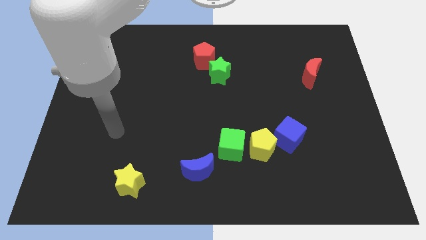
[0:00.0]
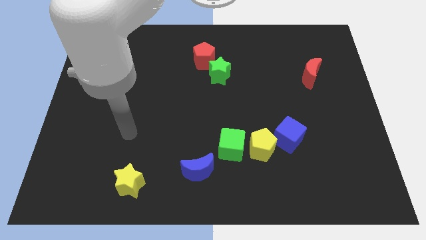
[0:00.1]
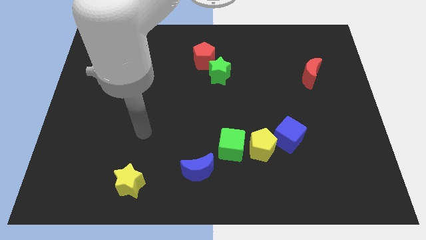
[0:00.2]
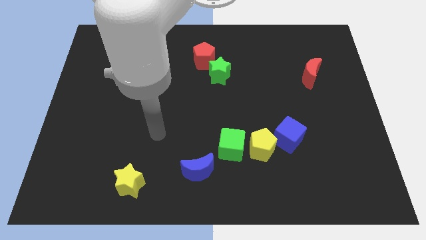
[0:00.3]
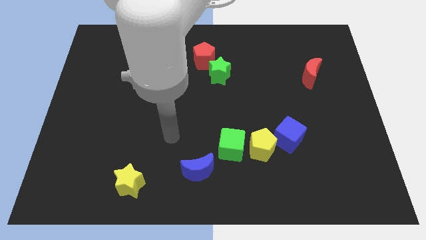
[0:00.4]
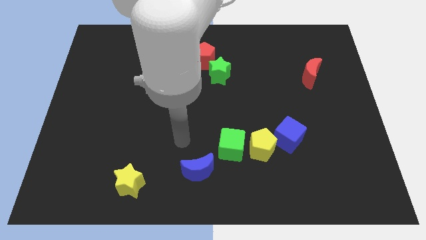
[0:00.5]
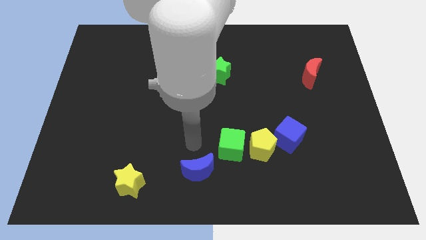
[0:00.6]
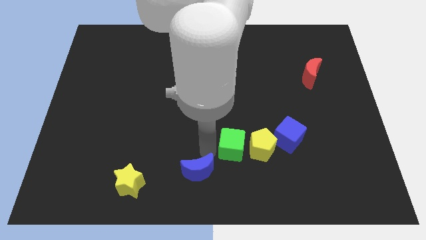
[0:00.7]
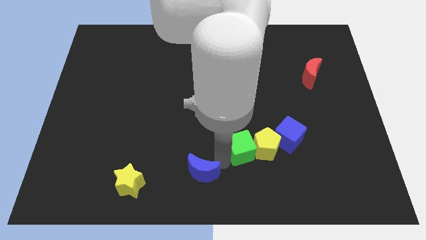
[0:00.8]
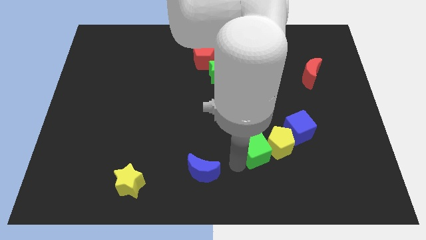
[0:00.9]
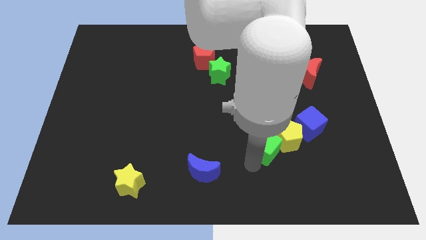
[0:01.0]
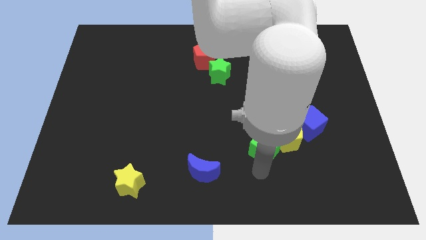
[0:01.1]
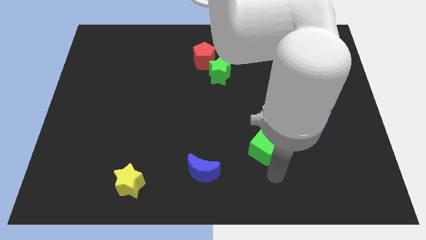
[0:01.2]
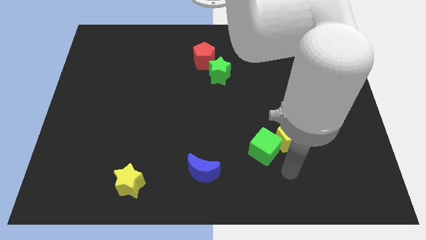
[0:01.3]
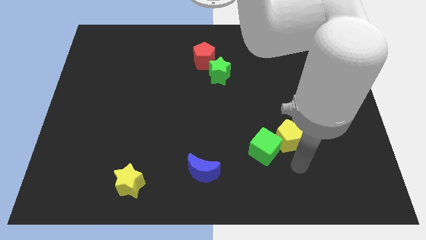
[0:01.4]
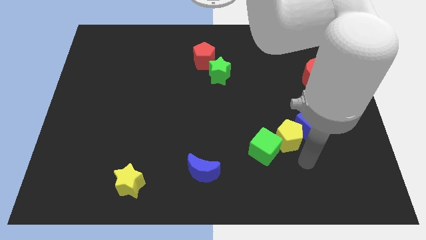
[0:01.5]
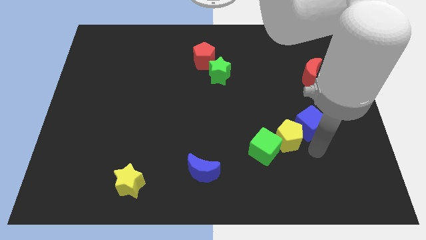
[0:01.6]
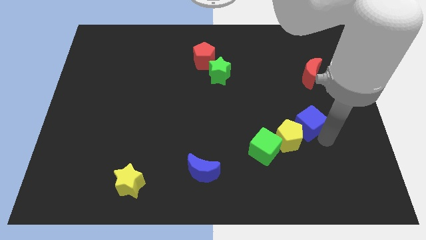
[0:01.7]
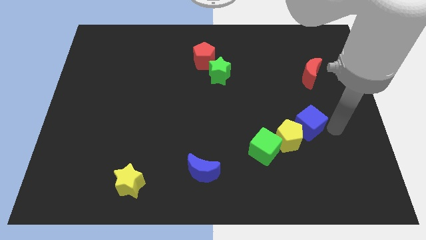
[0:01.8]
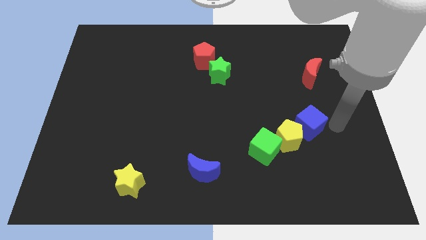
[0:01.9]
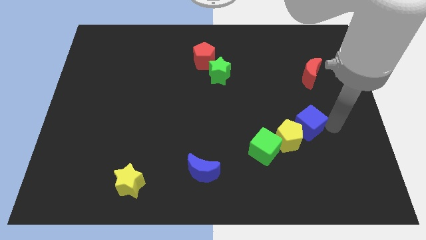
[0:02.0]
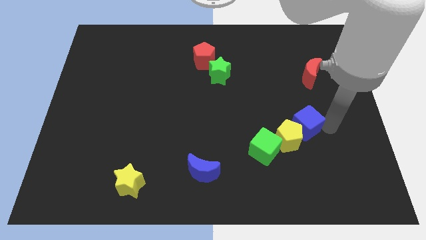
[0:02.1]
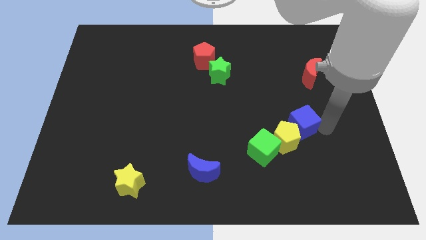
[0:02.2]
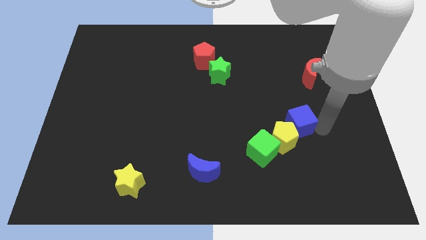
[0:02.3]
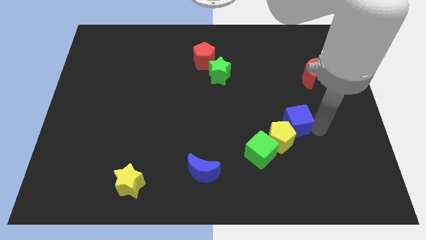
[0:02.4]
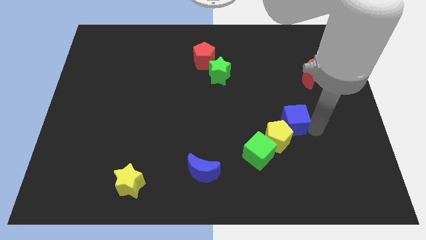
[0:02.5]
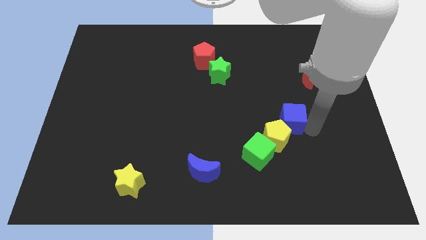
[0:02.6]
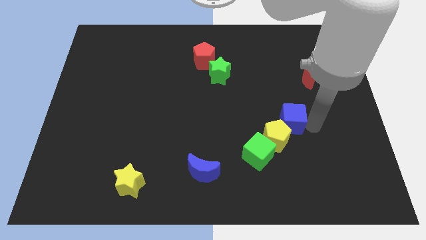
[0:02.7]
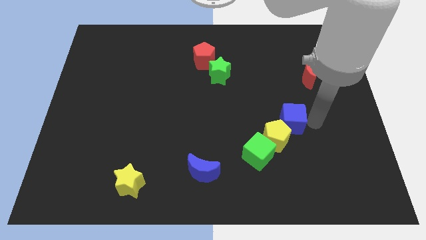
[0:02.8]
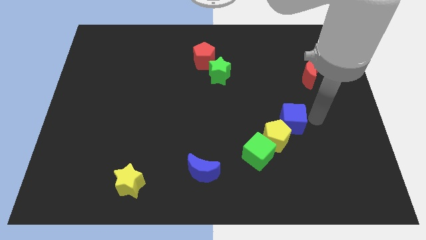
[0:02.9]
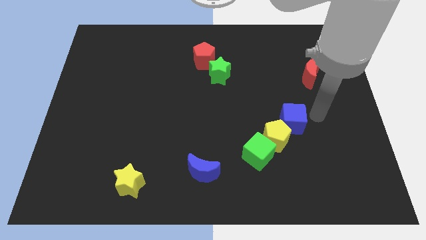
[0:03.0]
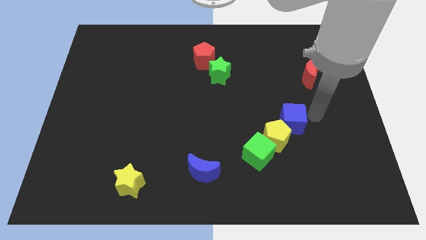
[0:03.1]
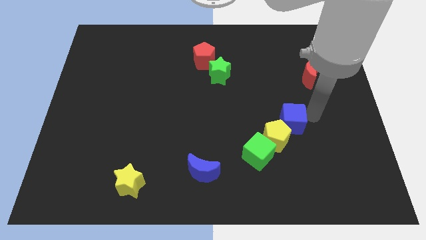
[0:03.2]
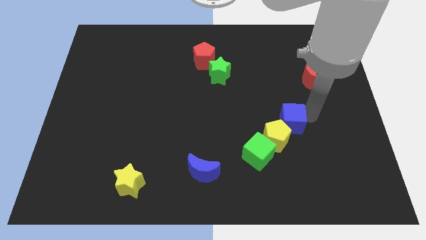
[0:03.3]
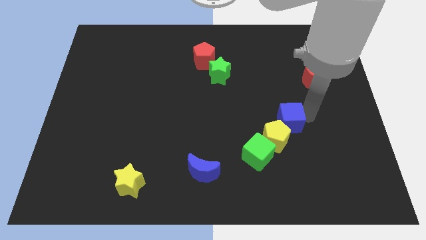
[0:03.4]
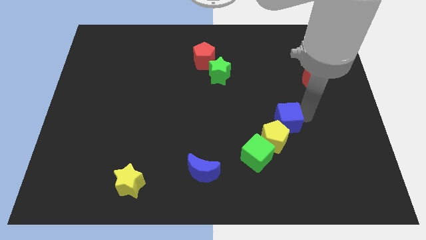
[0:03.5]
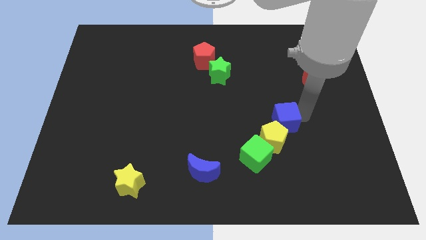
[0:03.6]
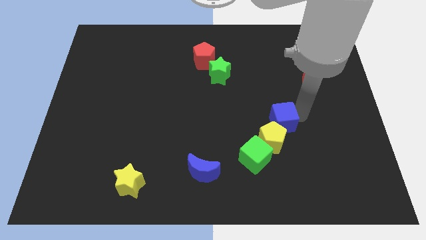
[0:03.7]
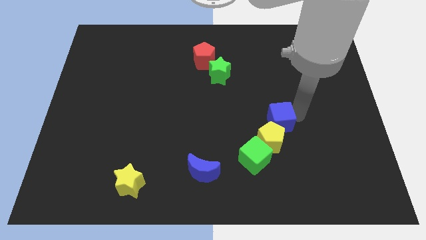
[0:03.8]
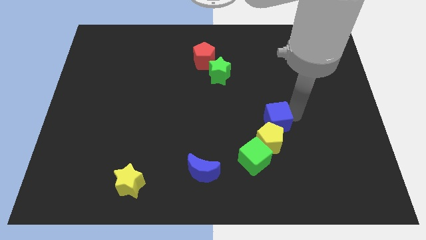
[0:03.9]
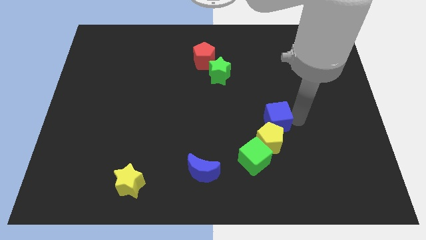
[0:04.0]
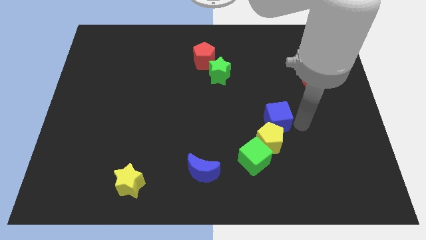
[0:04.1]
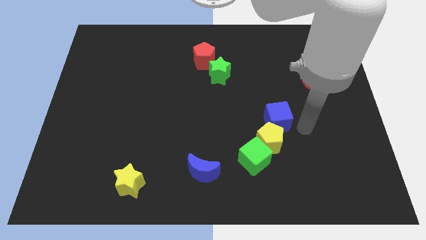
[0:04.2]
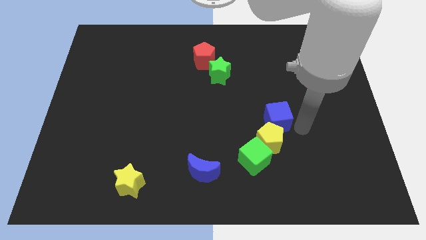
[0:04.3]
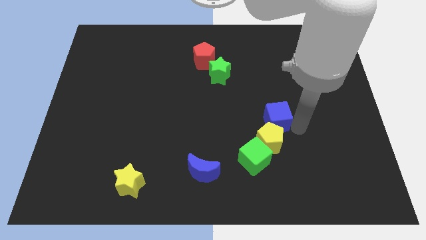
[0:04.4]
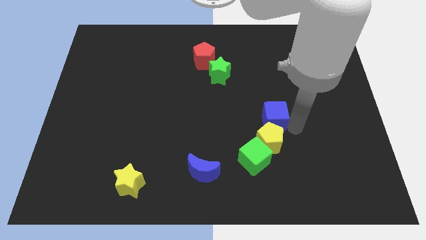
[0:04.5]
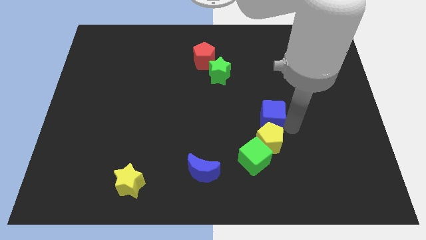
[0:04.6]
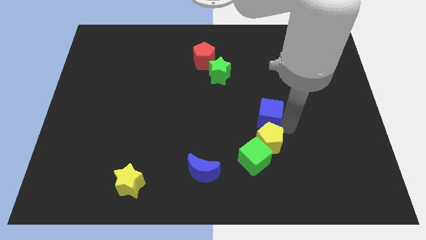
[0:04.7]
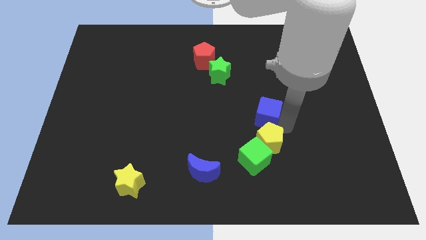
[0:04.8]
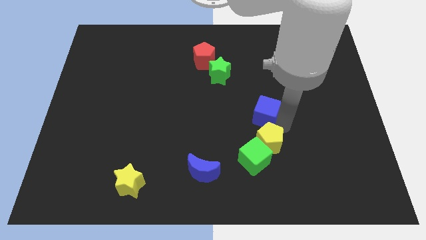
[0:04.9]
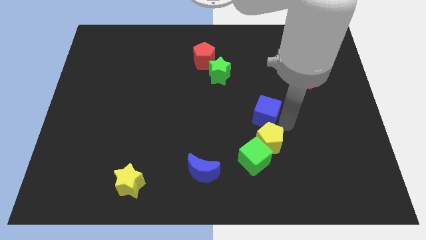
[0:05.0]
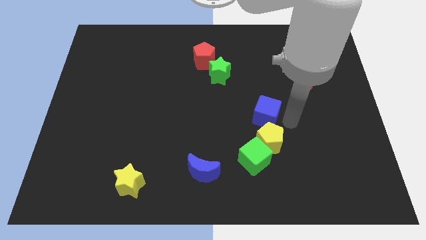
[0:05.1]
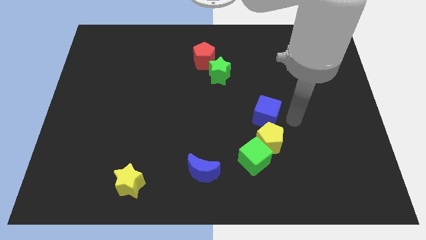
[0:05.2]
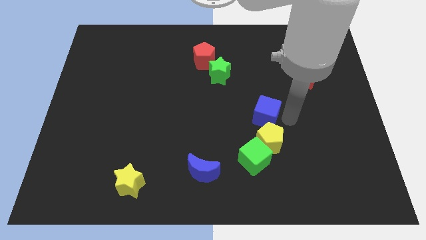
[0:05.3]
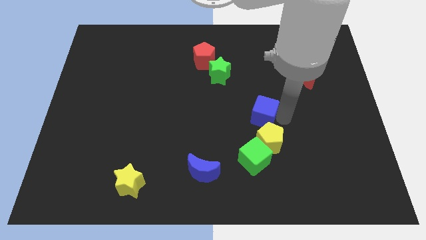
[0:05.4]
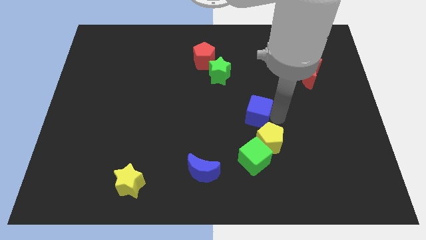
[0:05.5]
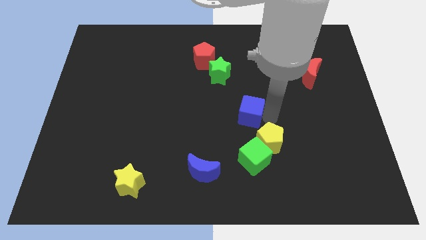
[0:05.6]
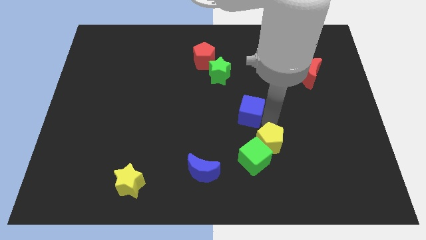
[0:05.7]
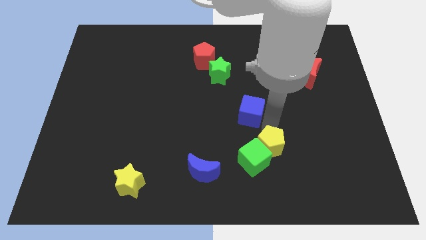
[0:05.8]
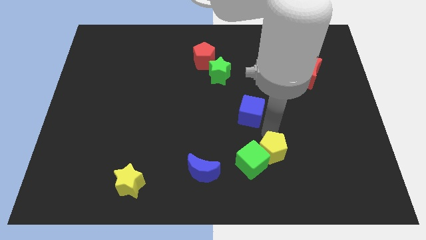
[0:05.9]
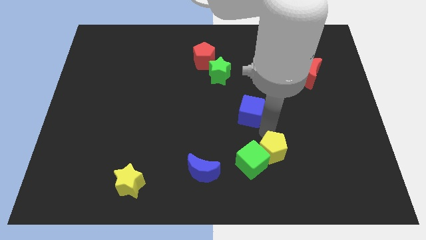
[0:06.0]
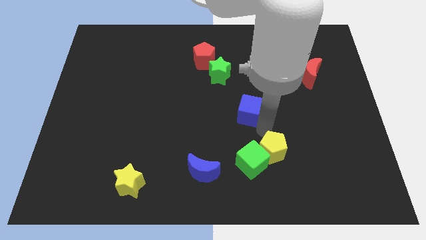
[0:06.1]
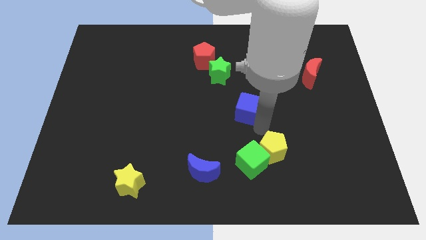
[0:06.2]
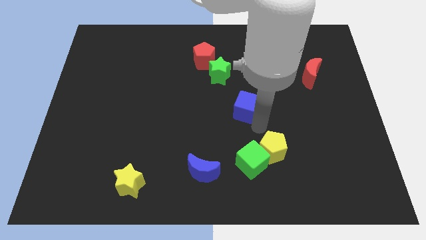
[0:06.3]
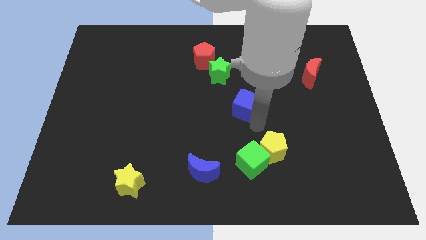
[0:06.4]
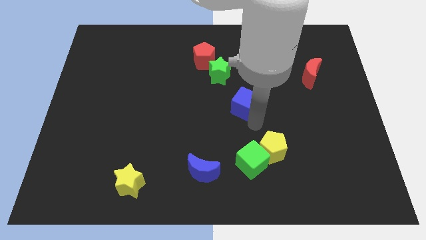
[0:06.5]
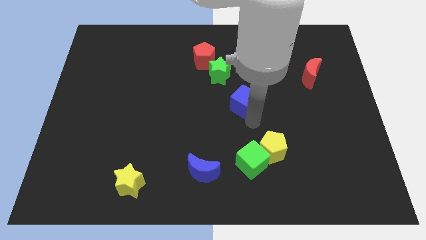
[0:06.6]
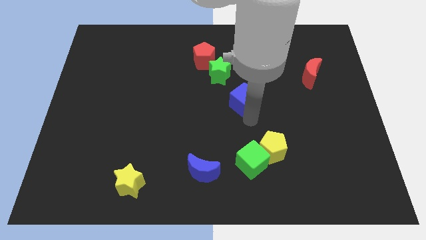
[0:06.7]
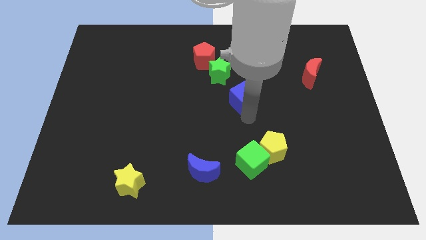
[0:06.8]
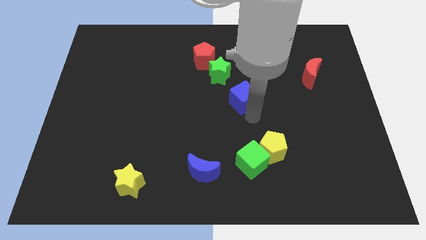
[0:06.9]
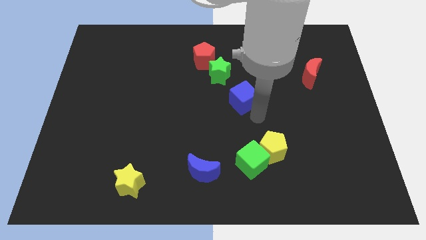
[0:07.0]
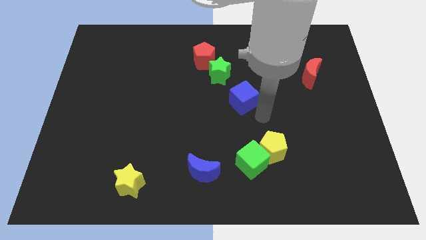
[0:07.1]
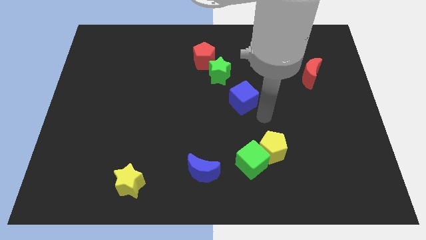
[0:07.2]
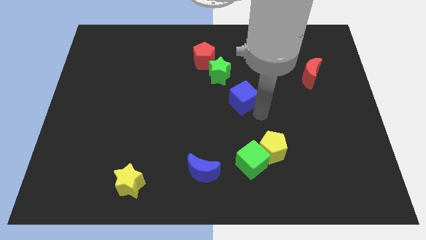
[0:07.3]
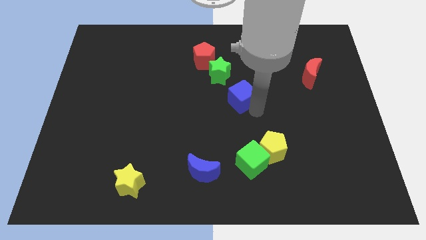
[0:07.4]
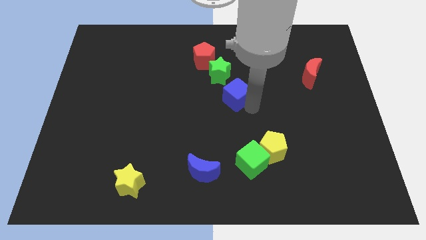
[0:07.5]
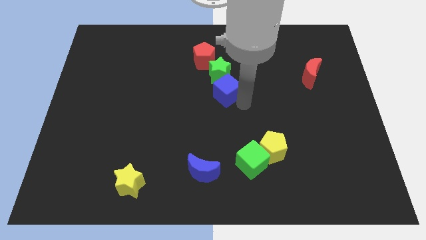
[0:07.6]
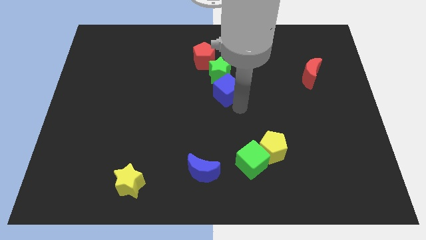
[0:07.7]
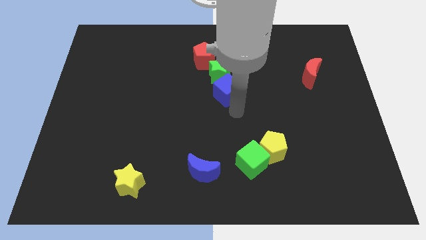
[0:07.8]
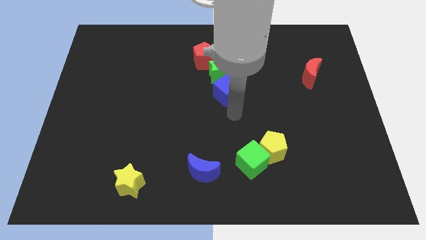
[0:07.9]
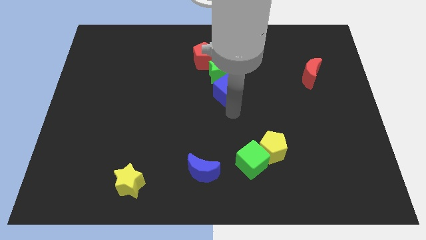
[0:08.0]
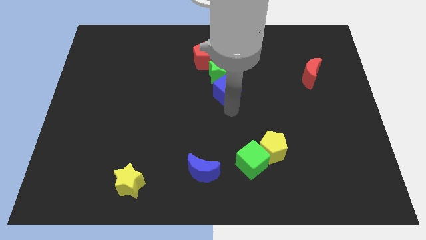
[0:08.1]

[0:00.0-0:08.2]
put the blue cube to the green star

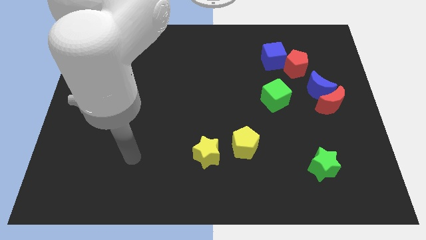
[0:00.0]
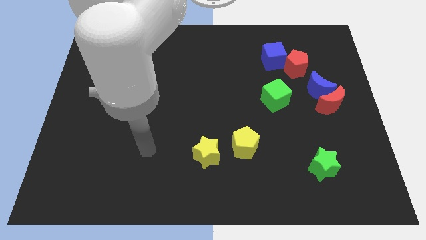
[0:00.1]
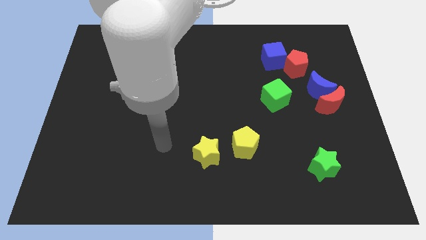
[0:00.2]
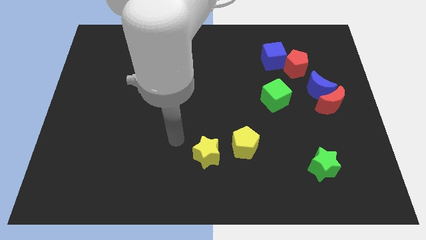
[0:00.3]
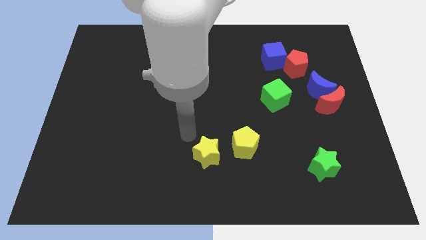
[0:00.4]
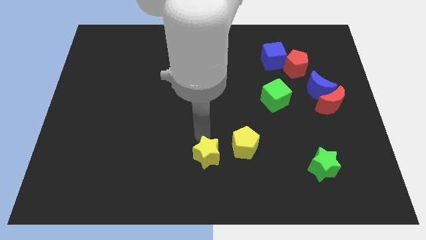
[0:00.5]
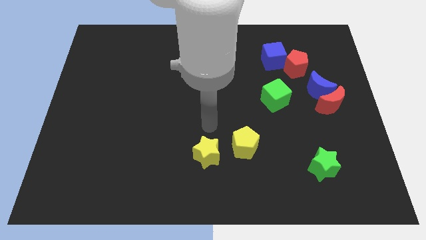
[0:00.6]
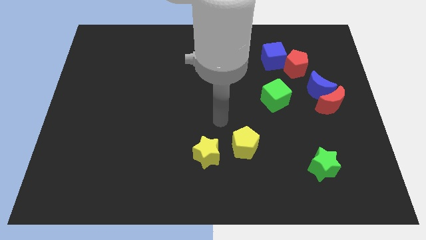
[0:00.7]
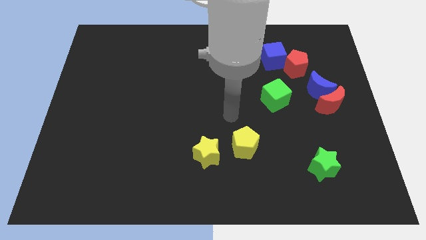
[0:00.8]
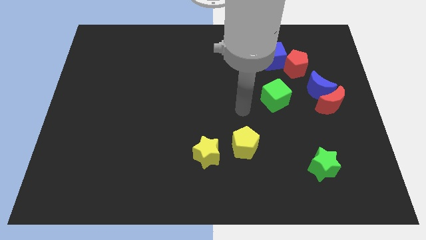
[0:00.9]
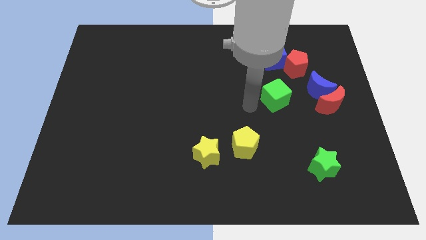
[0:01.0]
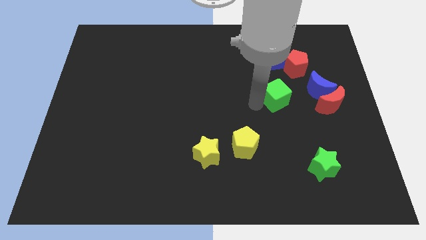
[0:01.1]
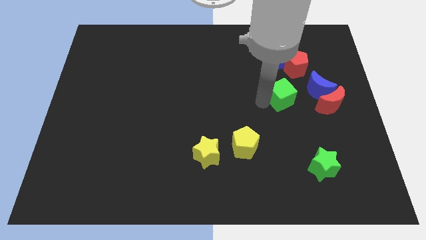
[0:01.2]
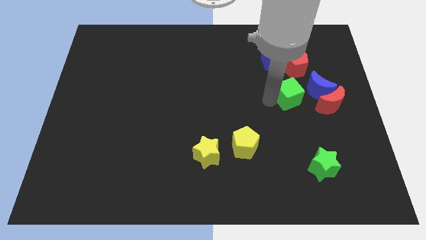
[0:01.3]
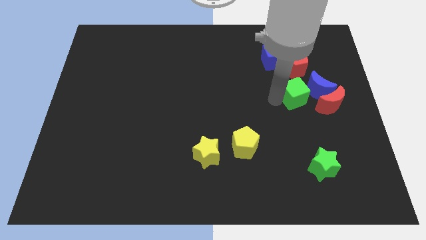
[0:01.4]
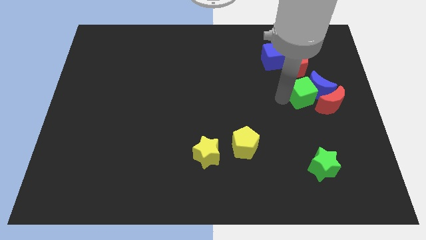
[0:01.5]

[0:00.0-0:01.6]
move the green cube towards the blue moon
